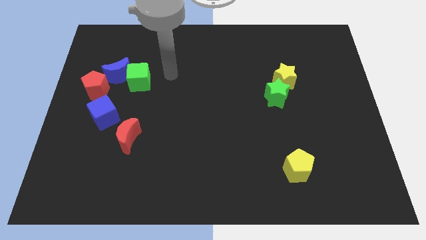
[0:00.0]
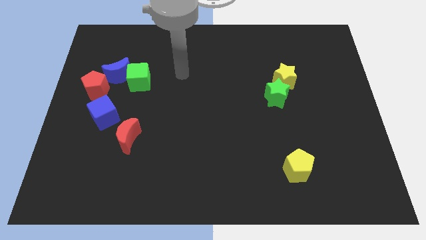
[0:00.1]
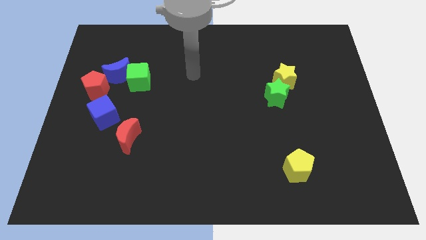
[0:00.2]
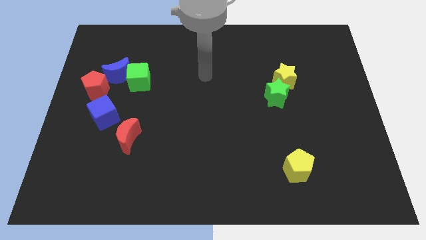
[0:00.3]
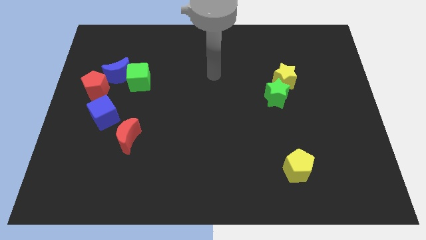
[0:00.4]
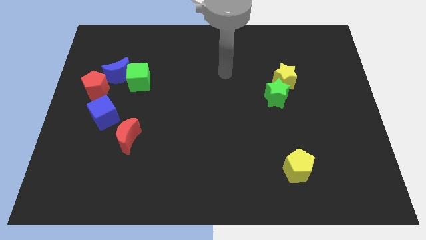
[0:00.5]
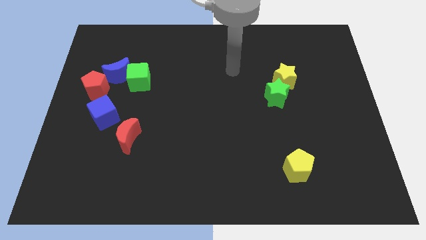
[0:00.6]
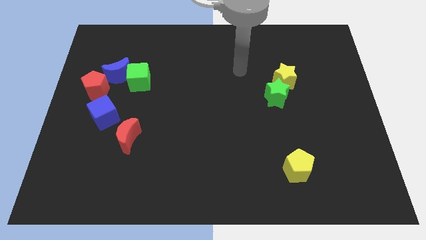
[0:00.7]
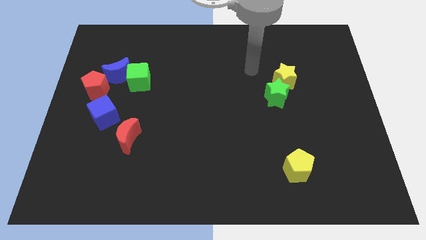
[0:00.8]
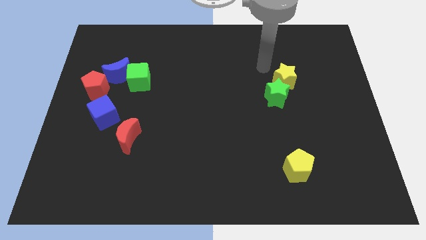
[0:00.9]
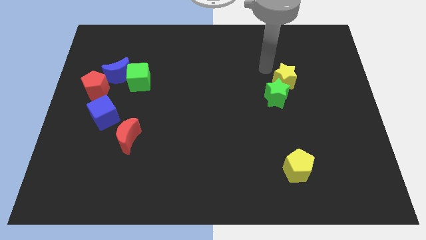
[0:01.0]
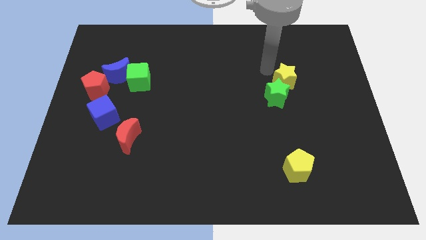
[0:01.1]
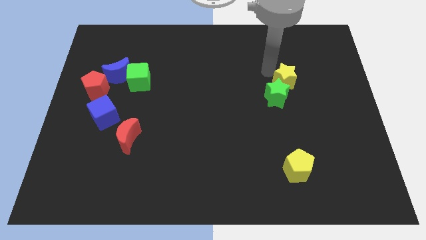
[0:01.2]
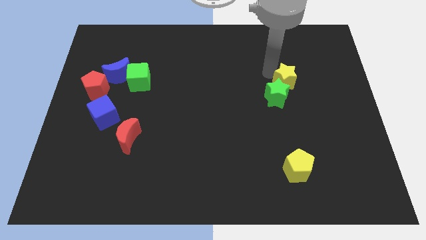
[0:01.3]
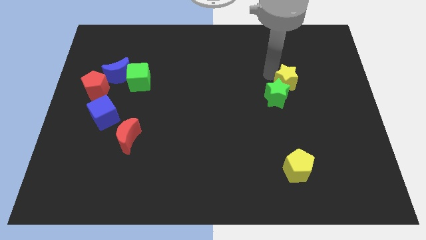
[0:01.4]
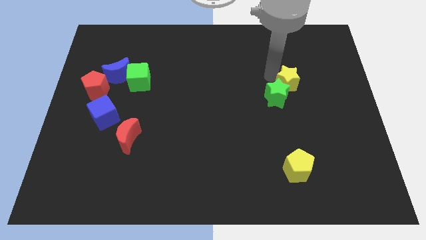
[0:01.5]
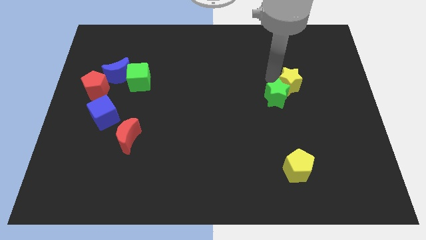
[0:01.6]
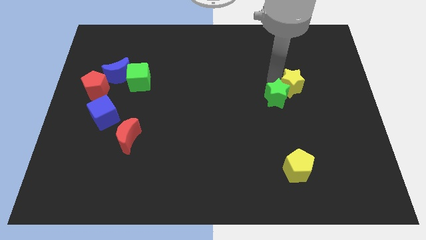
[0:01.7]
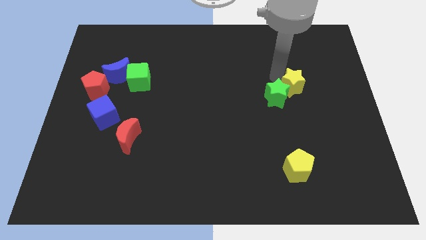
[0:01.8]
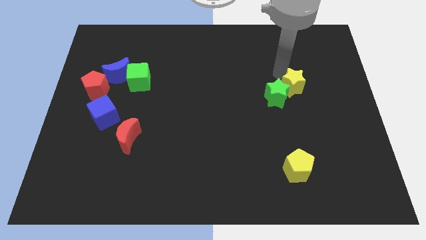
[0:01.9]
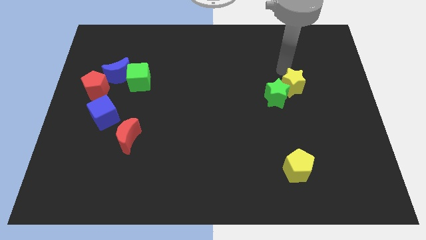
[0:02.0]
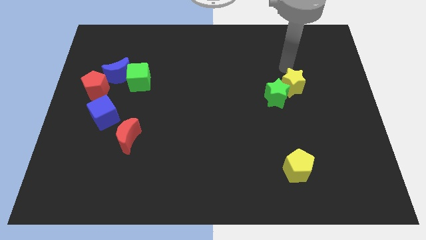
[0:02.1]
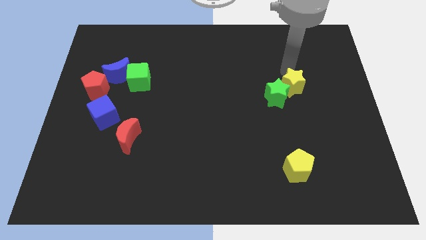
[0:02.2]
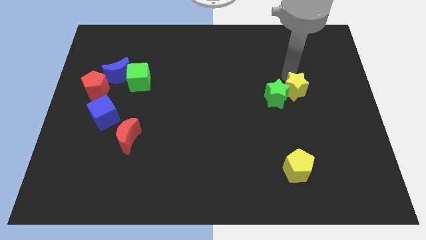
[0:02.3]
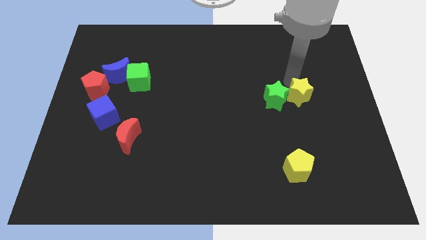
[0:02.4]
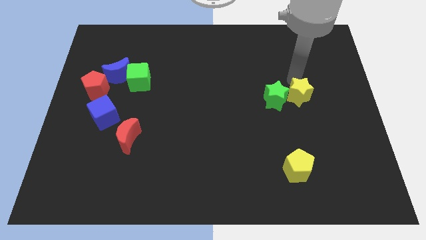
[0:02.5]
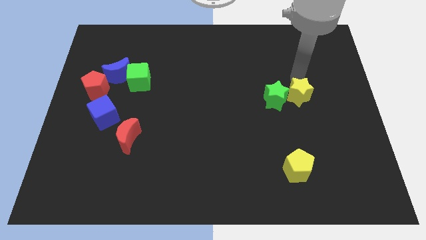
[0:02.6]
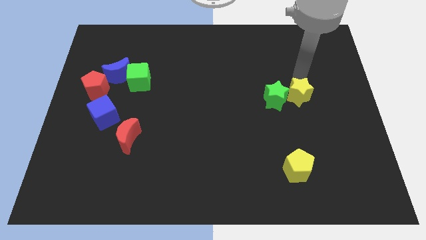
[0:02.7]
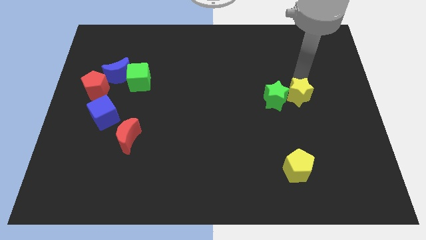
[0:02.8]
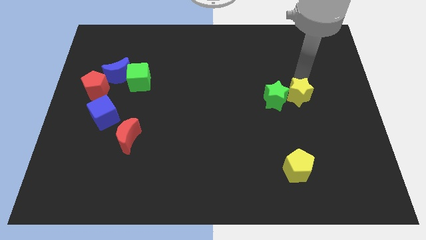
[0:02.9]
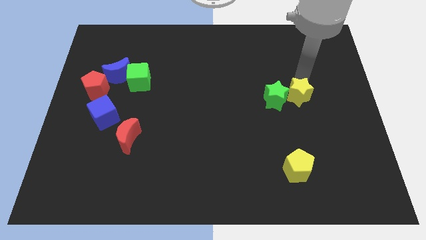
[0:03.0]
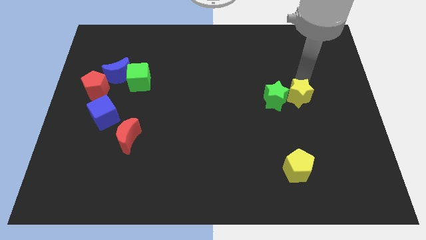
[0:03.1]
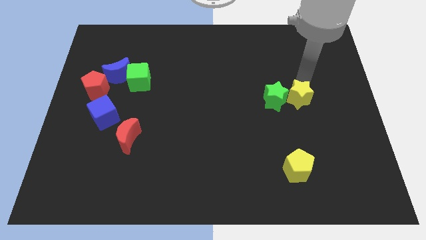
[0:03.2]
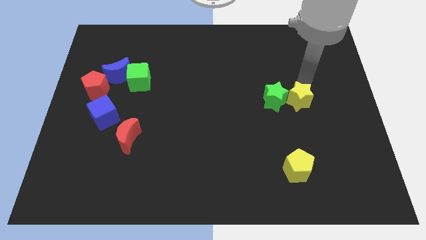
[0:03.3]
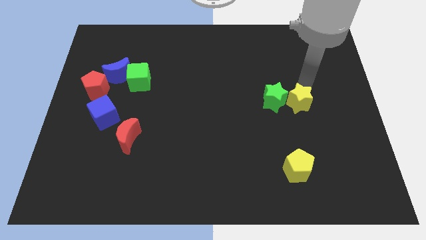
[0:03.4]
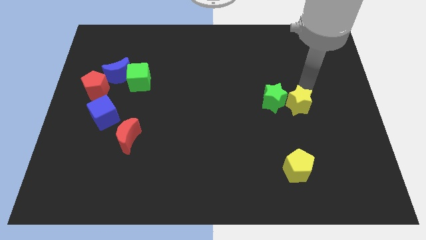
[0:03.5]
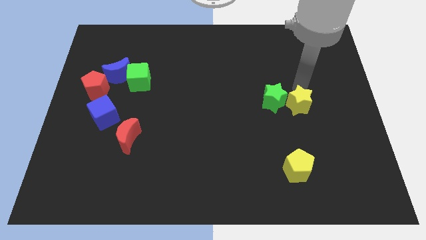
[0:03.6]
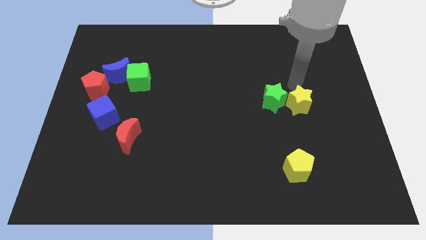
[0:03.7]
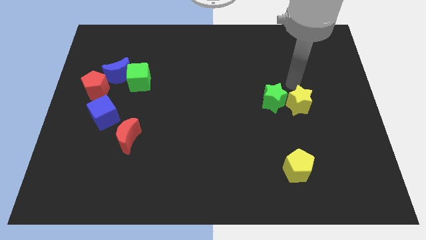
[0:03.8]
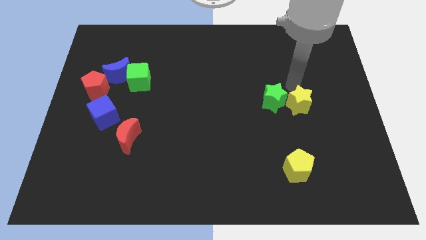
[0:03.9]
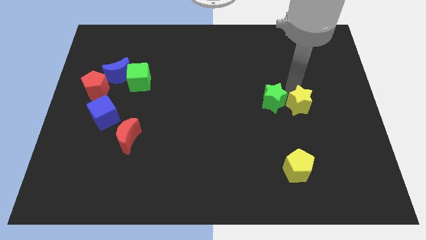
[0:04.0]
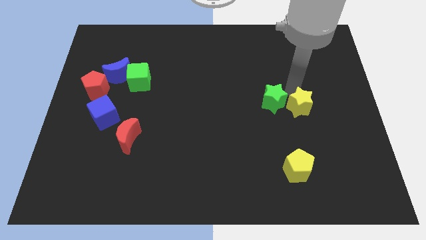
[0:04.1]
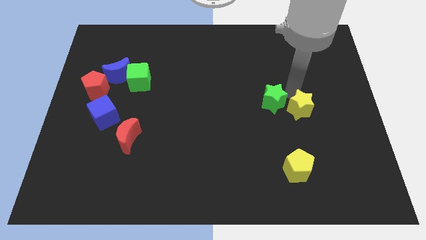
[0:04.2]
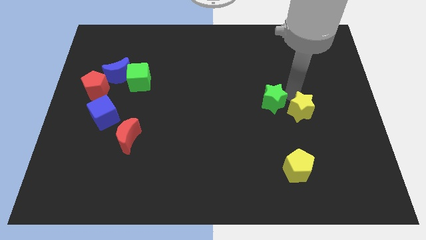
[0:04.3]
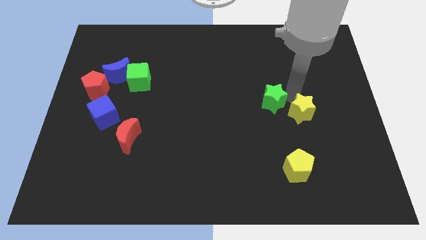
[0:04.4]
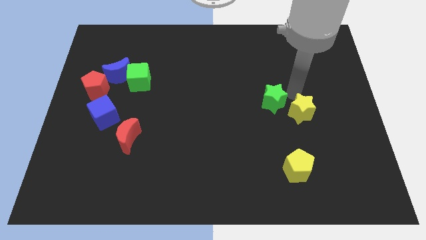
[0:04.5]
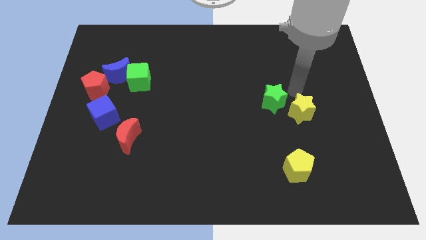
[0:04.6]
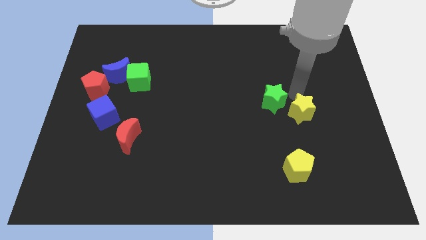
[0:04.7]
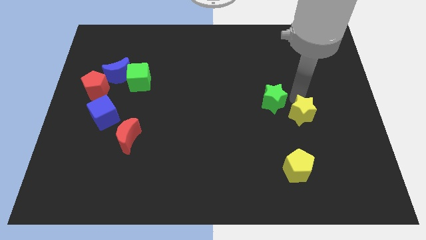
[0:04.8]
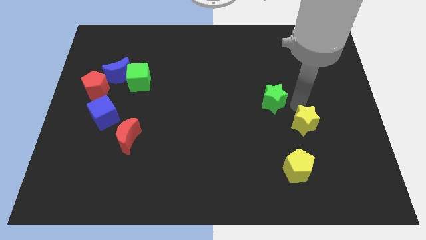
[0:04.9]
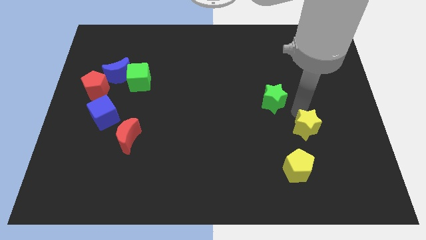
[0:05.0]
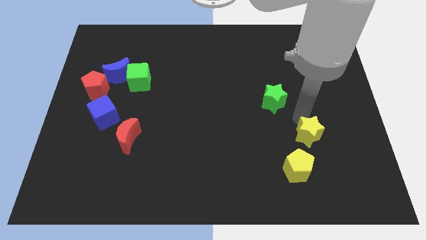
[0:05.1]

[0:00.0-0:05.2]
slide the yellow star to the top right of the yellow pentagon

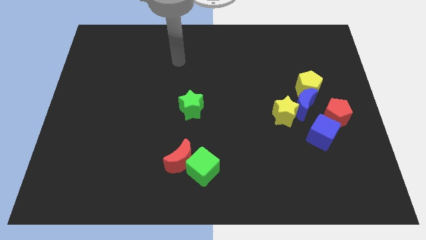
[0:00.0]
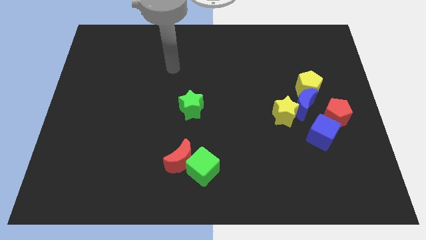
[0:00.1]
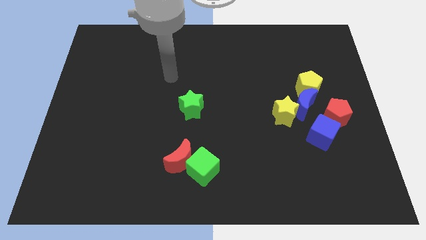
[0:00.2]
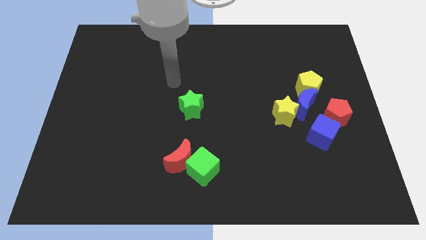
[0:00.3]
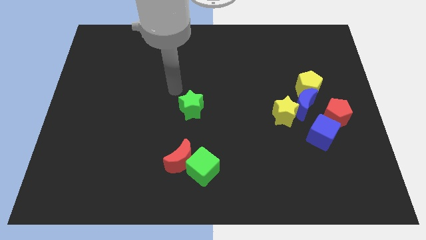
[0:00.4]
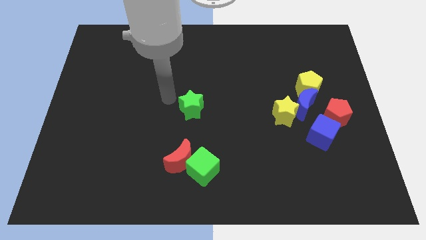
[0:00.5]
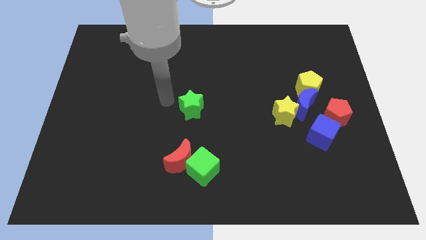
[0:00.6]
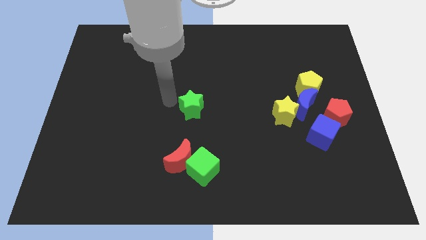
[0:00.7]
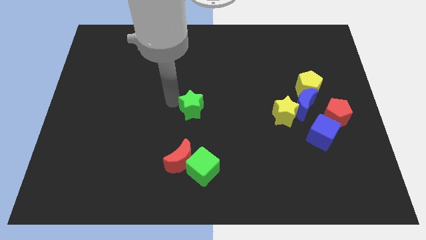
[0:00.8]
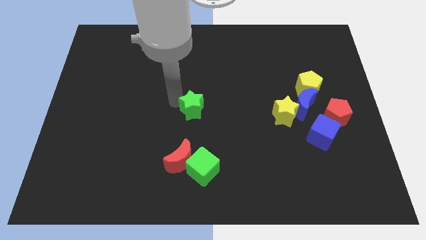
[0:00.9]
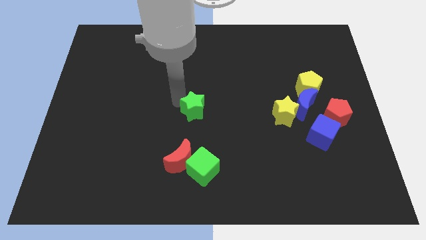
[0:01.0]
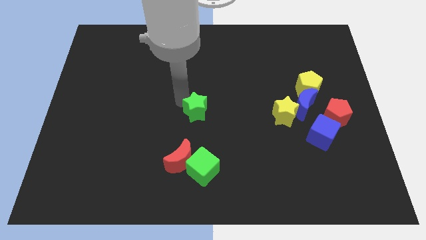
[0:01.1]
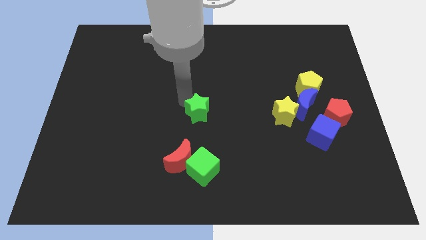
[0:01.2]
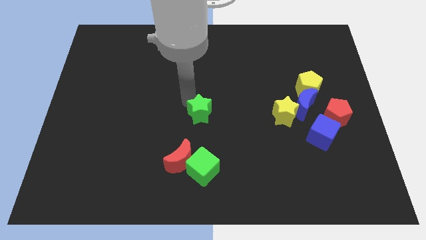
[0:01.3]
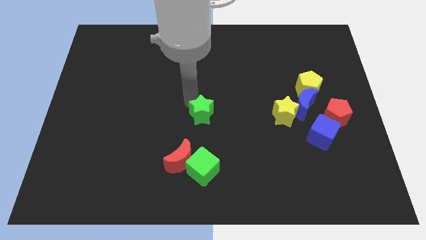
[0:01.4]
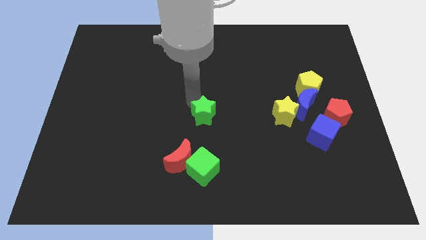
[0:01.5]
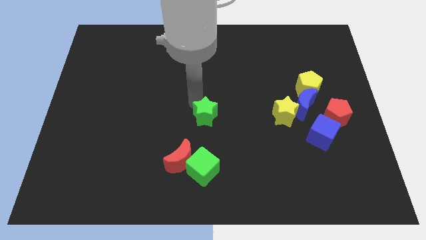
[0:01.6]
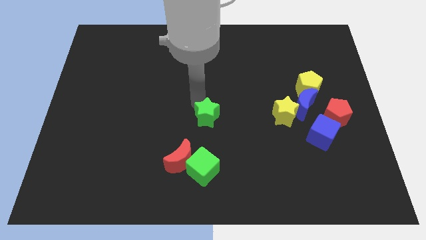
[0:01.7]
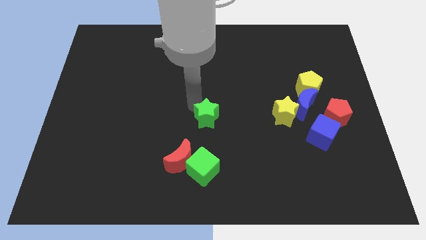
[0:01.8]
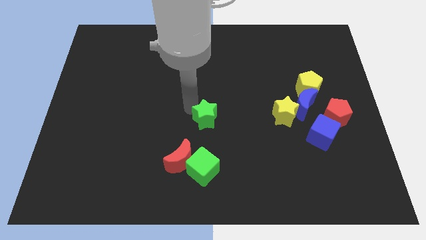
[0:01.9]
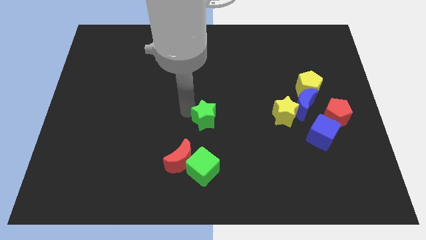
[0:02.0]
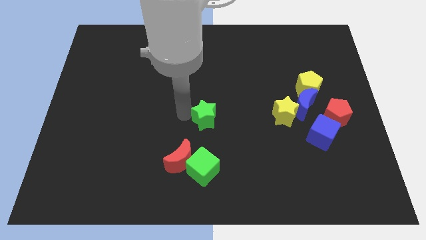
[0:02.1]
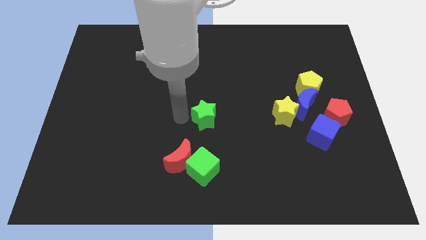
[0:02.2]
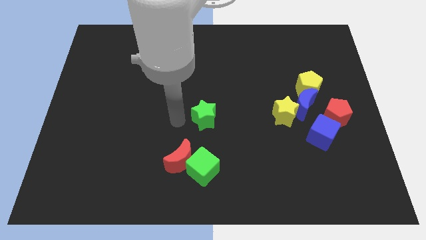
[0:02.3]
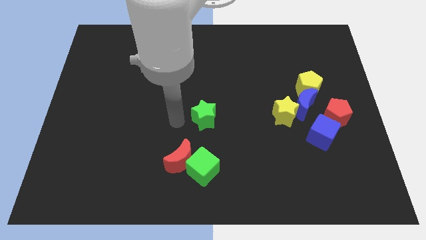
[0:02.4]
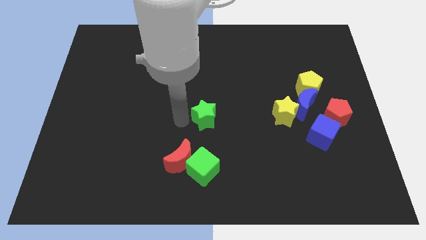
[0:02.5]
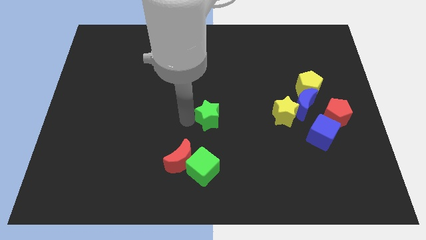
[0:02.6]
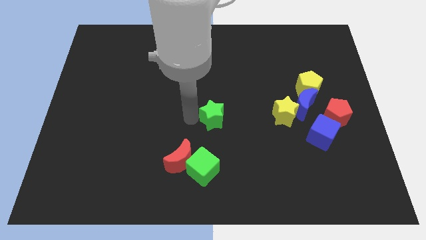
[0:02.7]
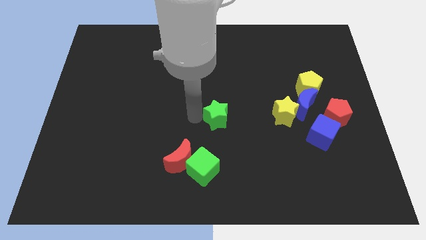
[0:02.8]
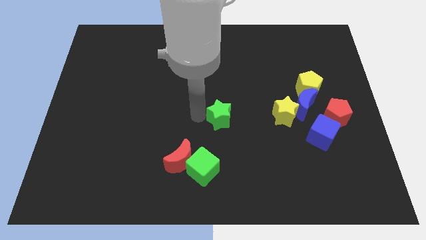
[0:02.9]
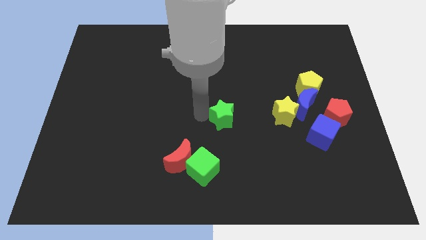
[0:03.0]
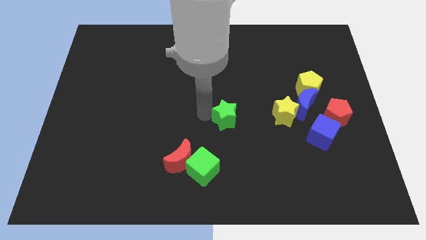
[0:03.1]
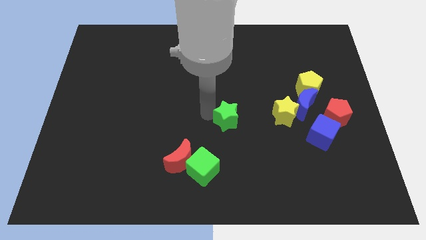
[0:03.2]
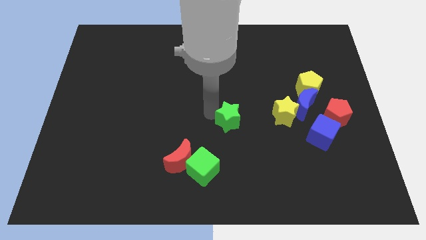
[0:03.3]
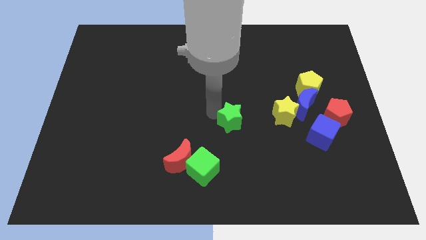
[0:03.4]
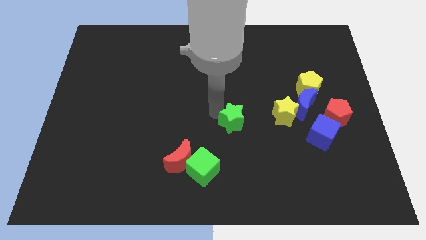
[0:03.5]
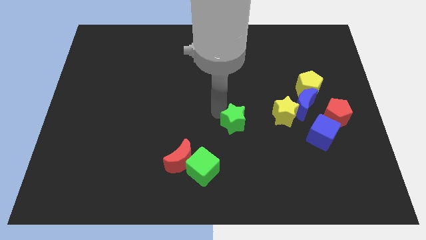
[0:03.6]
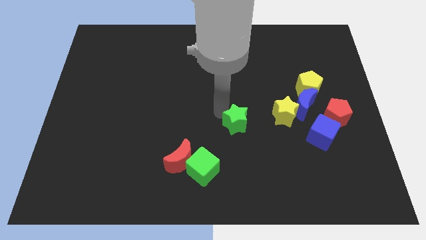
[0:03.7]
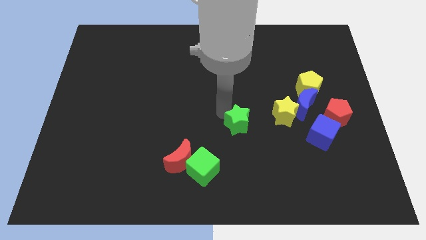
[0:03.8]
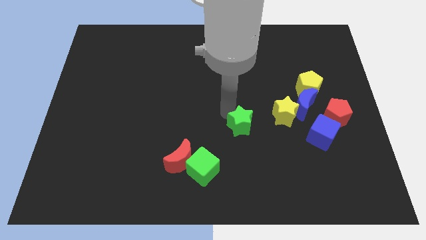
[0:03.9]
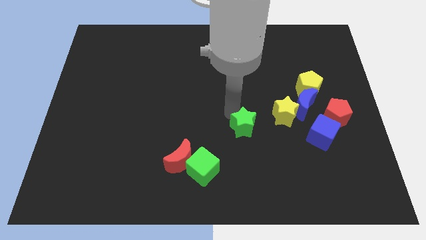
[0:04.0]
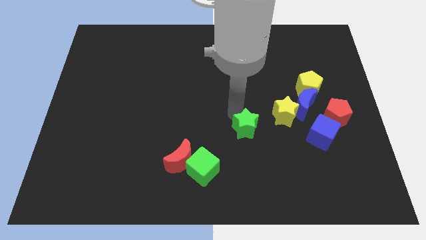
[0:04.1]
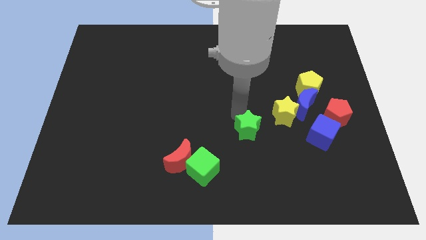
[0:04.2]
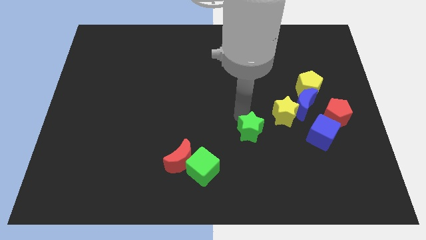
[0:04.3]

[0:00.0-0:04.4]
put the green star left of the blue cube
